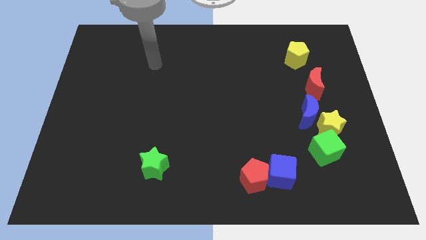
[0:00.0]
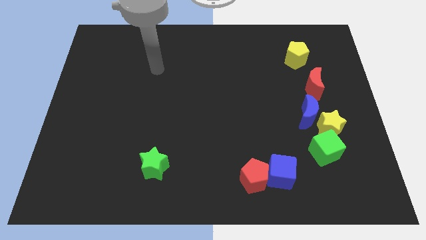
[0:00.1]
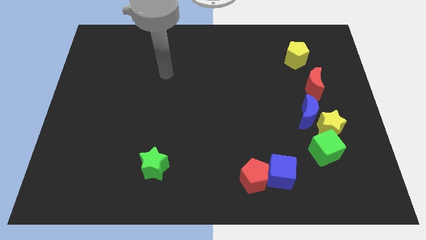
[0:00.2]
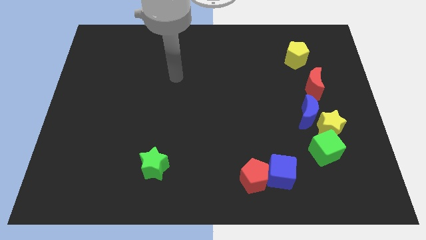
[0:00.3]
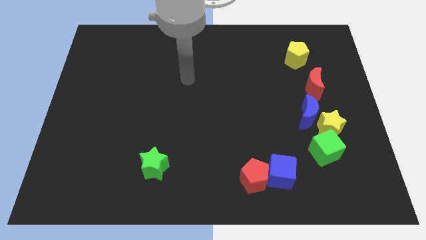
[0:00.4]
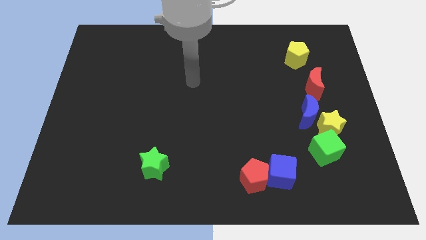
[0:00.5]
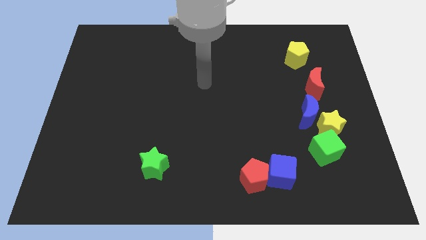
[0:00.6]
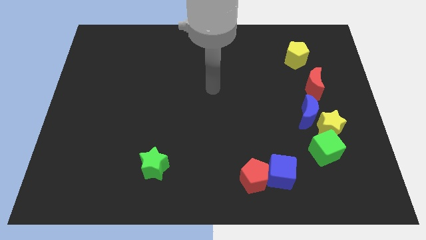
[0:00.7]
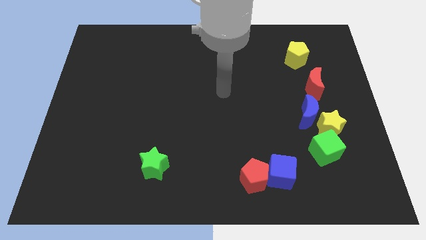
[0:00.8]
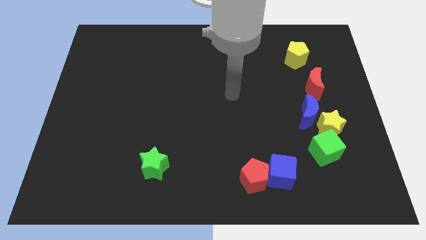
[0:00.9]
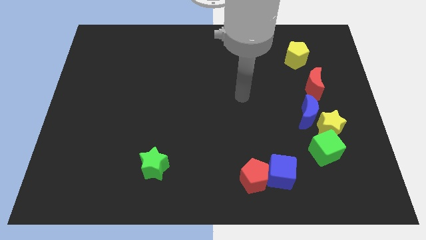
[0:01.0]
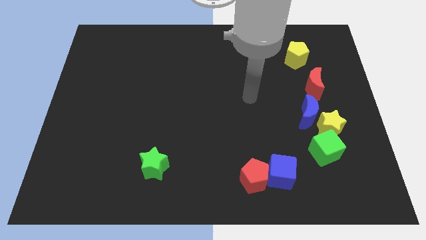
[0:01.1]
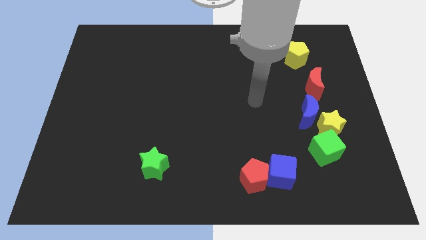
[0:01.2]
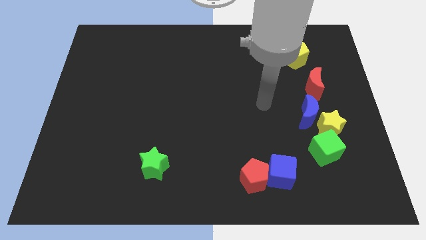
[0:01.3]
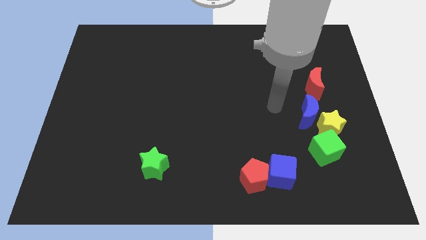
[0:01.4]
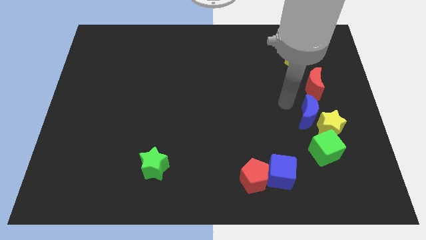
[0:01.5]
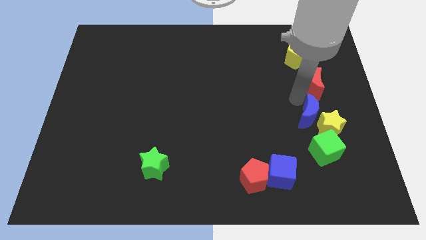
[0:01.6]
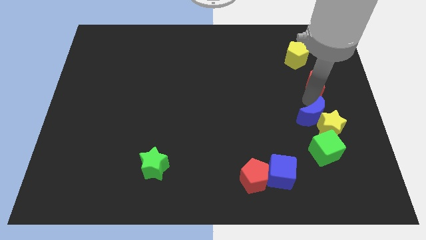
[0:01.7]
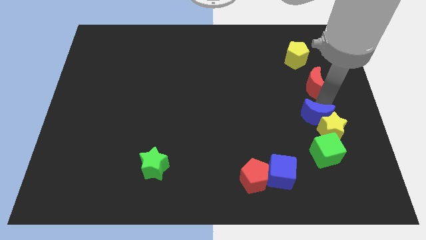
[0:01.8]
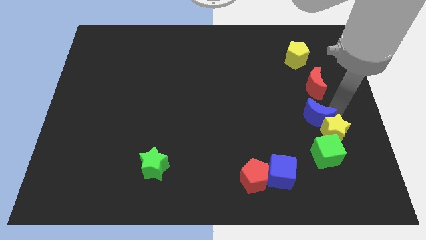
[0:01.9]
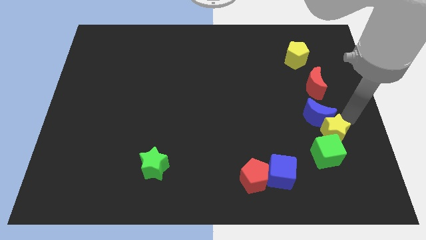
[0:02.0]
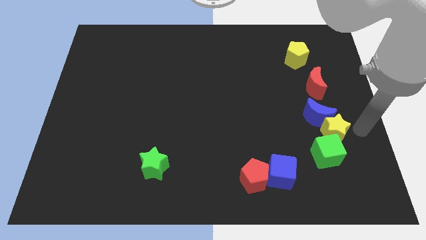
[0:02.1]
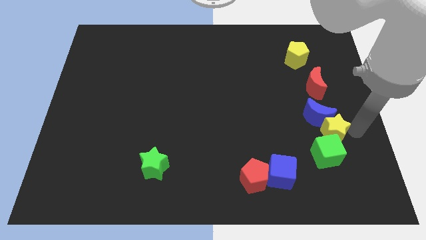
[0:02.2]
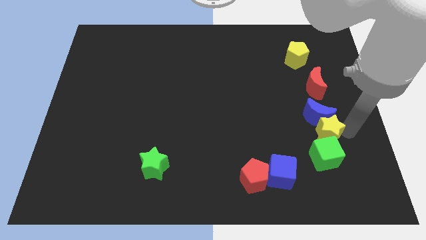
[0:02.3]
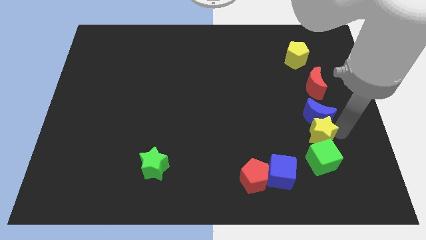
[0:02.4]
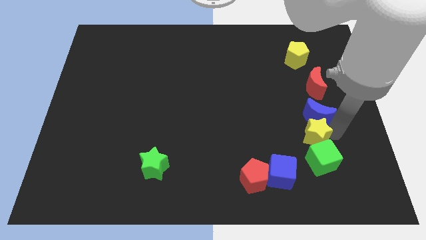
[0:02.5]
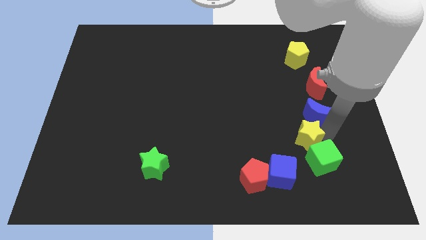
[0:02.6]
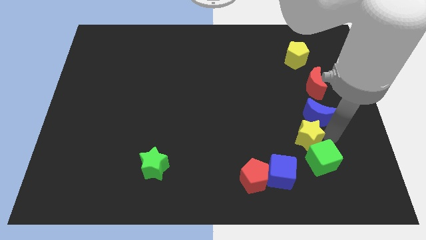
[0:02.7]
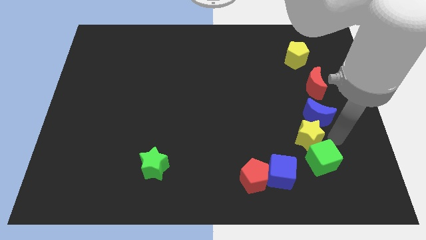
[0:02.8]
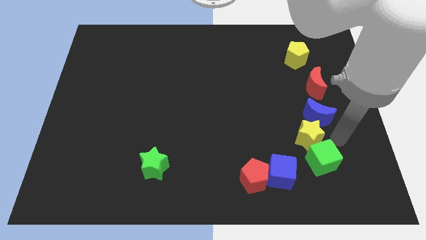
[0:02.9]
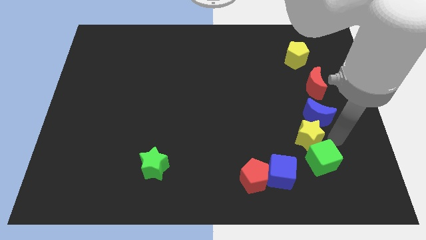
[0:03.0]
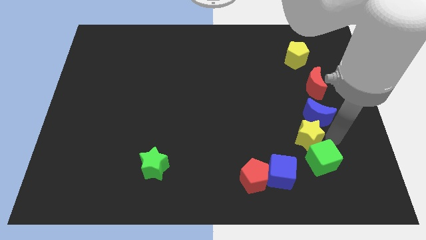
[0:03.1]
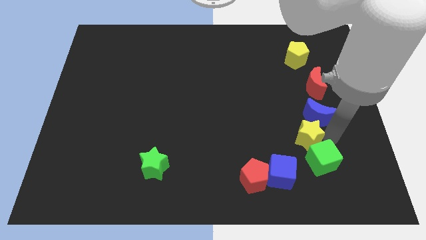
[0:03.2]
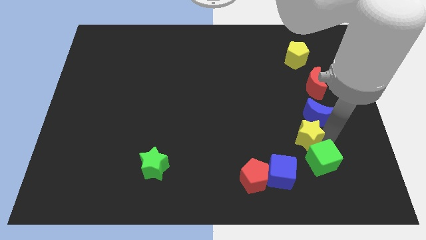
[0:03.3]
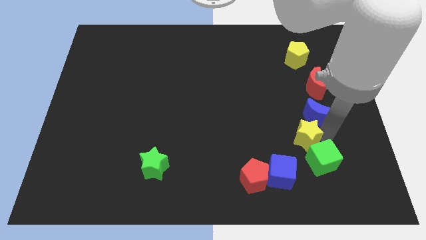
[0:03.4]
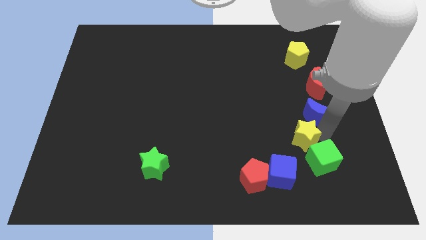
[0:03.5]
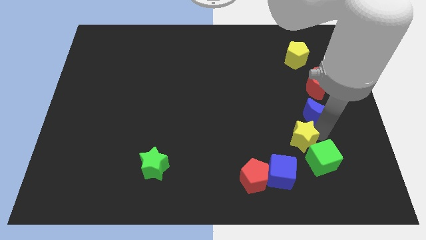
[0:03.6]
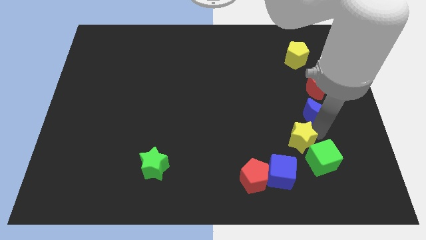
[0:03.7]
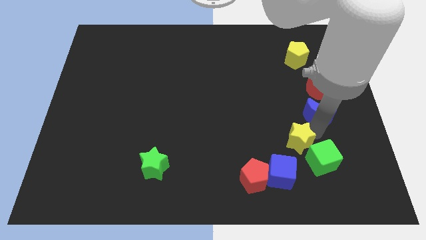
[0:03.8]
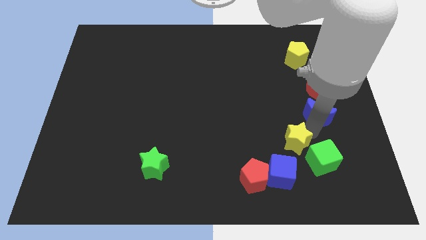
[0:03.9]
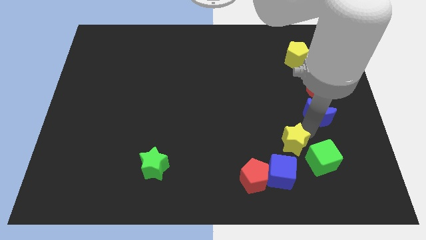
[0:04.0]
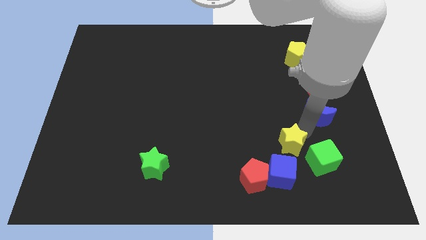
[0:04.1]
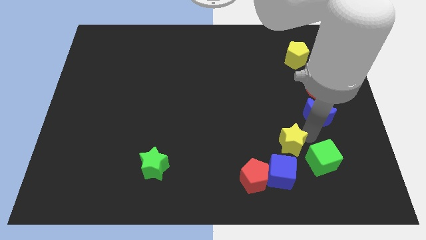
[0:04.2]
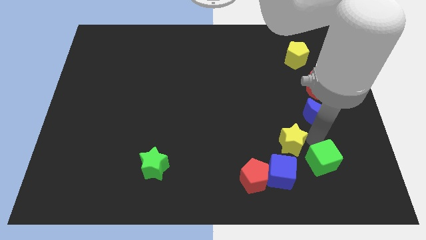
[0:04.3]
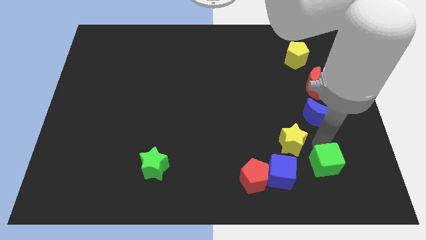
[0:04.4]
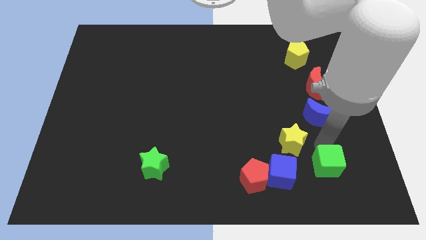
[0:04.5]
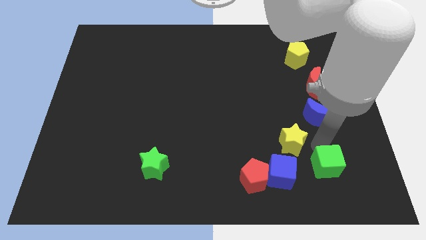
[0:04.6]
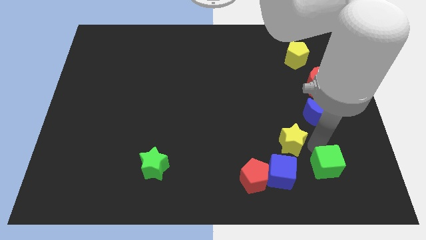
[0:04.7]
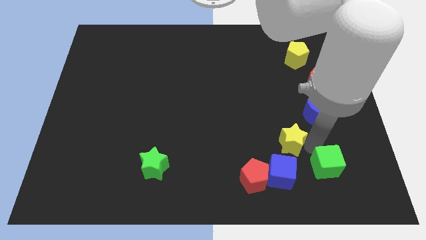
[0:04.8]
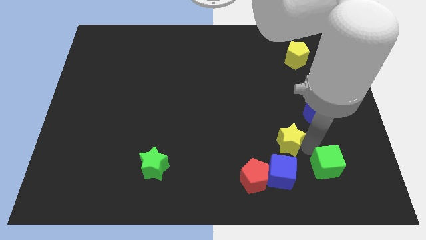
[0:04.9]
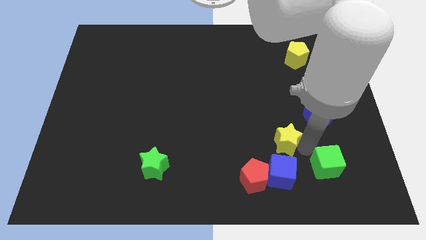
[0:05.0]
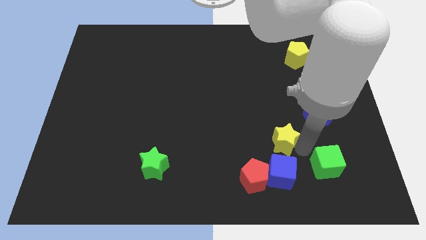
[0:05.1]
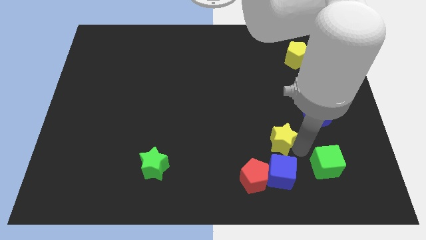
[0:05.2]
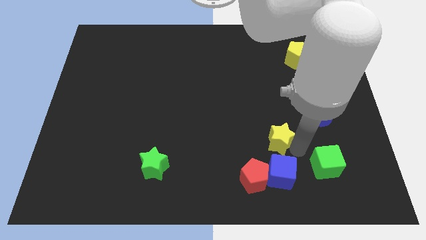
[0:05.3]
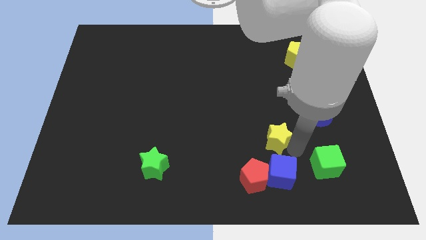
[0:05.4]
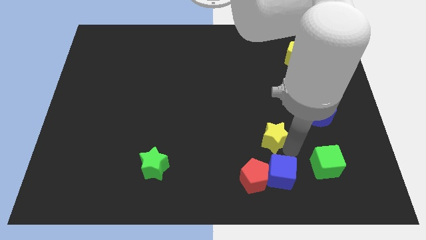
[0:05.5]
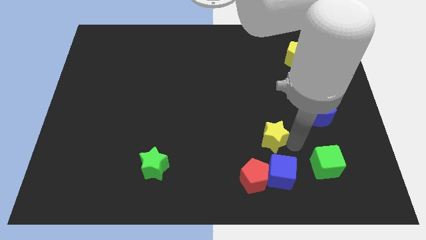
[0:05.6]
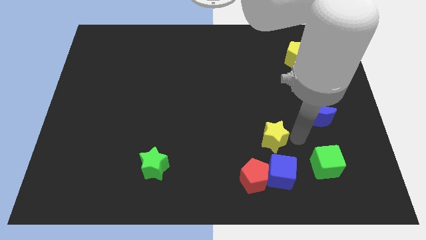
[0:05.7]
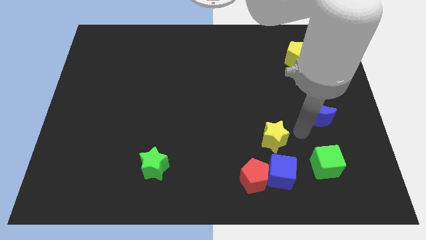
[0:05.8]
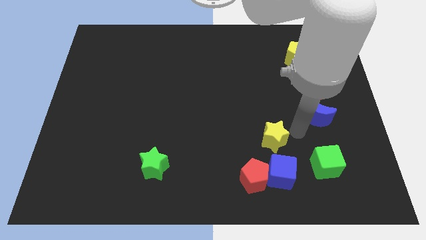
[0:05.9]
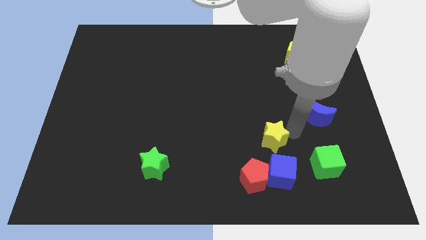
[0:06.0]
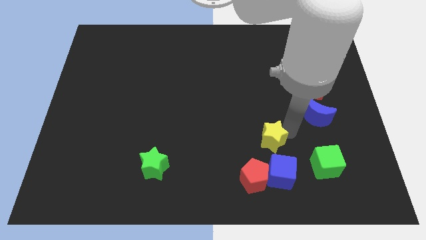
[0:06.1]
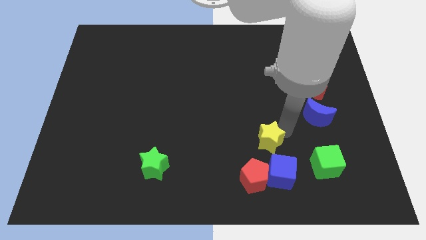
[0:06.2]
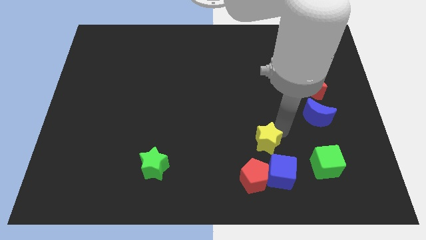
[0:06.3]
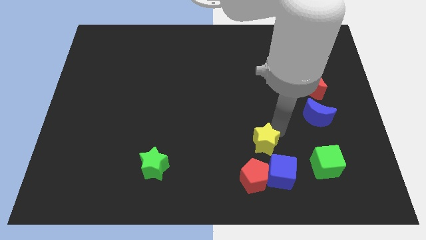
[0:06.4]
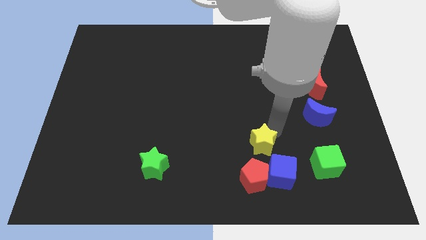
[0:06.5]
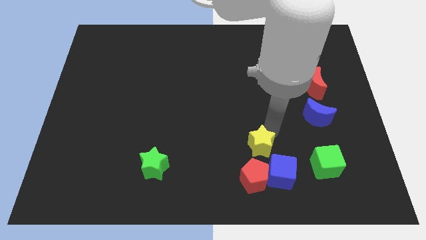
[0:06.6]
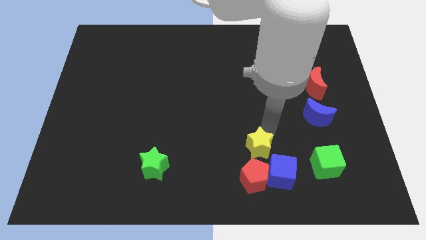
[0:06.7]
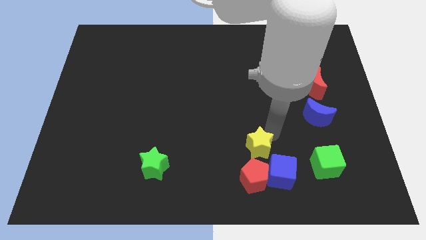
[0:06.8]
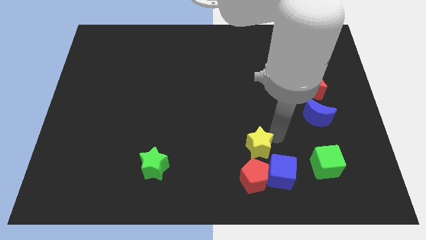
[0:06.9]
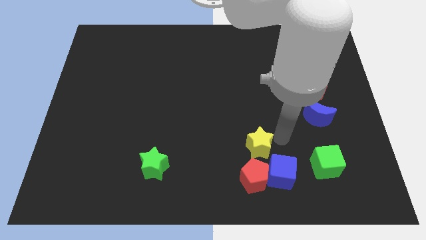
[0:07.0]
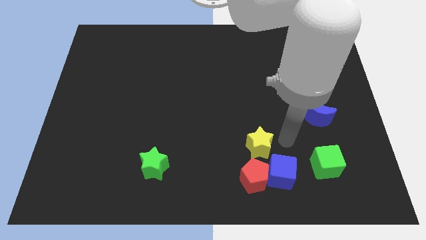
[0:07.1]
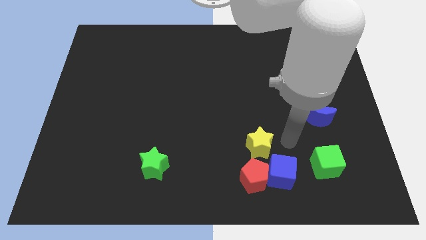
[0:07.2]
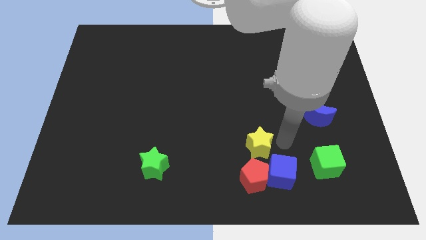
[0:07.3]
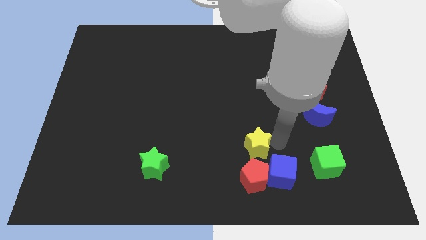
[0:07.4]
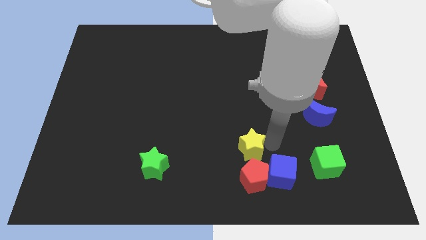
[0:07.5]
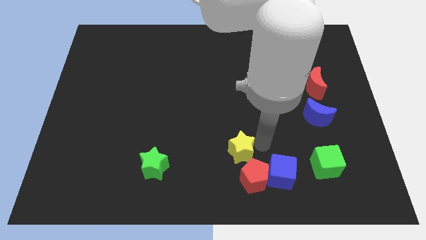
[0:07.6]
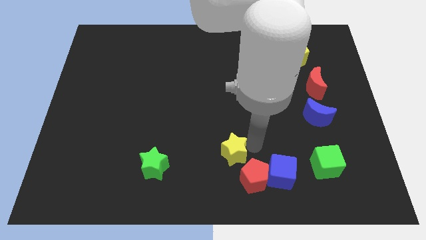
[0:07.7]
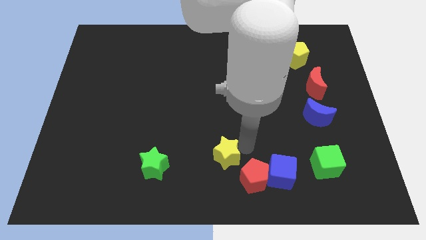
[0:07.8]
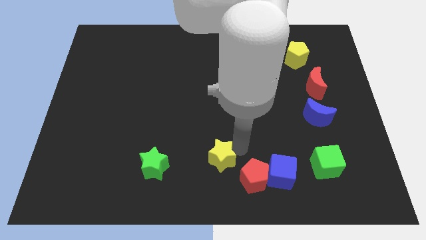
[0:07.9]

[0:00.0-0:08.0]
put the yellow star to the left of the red pentagon
